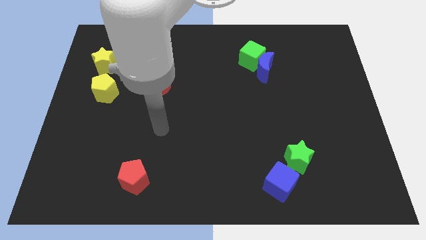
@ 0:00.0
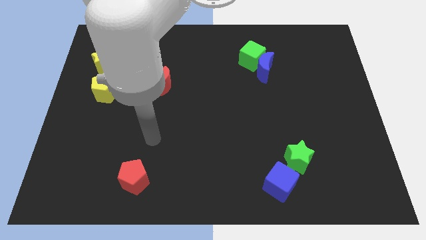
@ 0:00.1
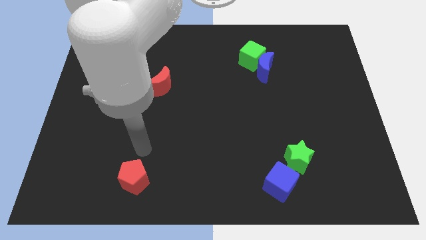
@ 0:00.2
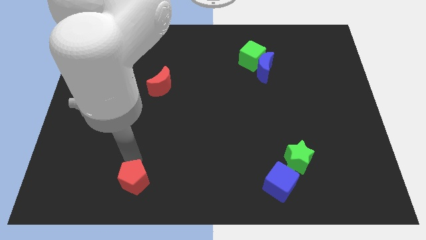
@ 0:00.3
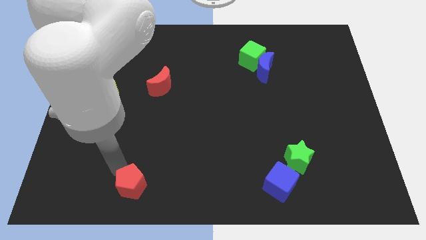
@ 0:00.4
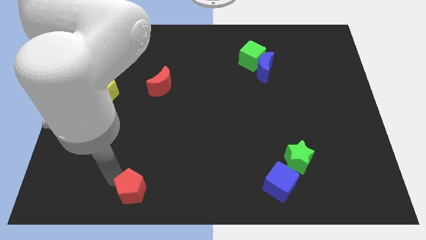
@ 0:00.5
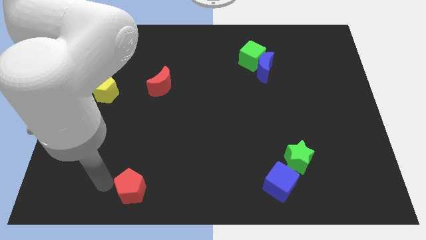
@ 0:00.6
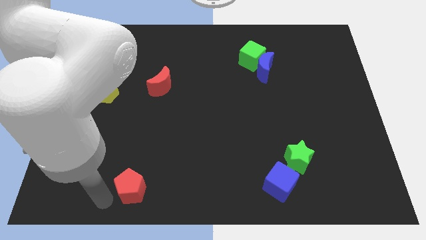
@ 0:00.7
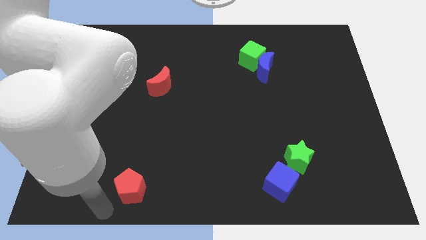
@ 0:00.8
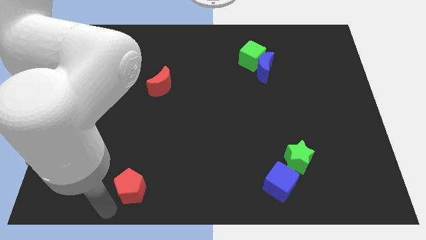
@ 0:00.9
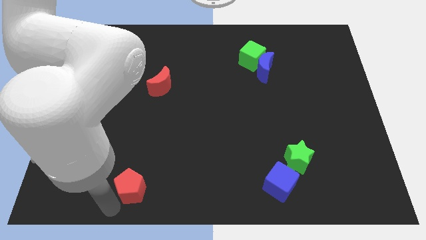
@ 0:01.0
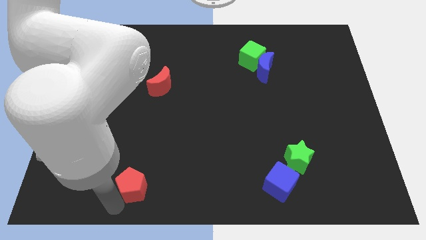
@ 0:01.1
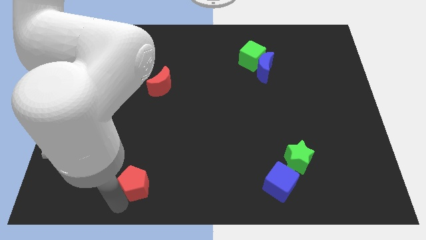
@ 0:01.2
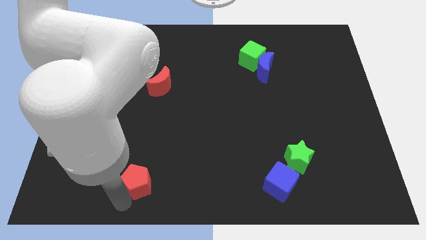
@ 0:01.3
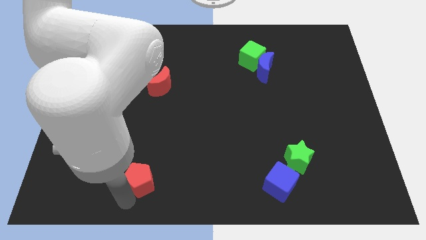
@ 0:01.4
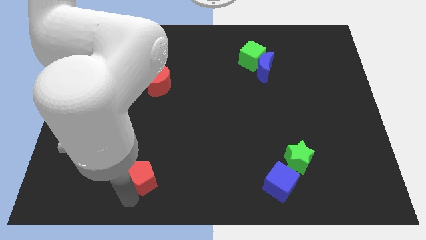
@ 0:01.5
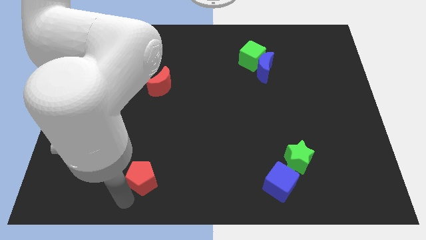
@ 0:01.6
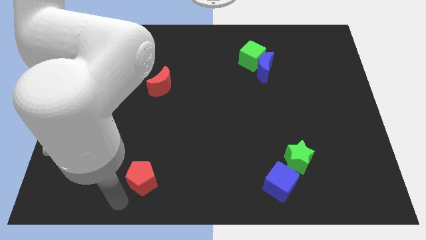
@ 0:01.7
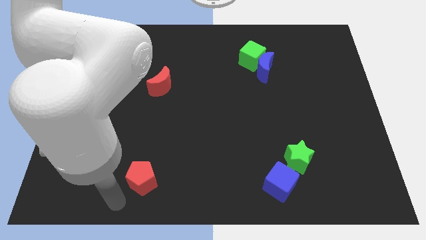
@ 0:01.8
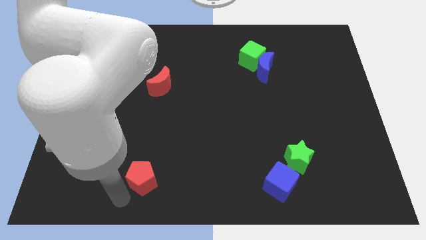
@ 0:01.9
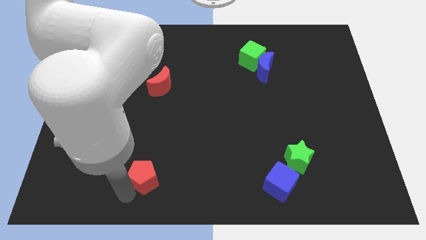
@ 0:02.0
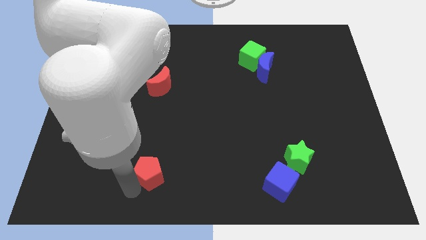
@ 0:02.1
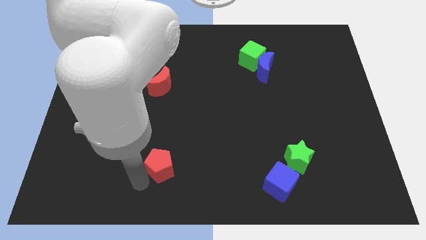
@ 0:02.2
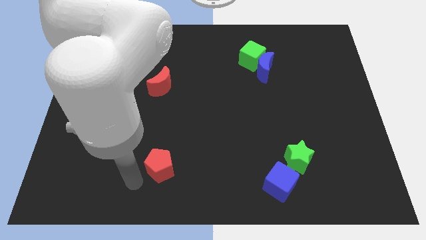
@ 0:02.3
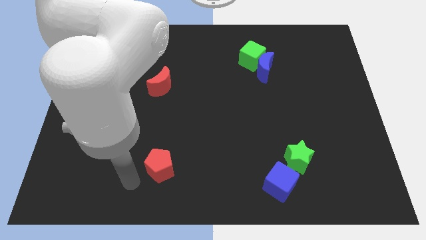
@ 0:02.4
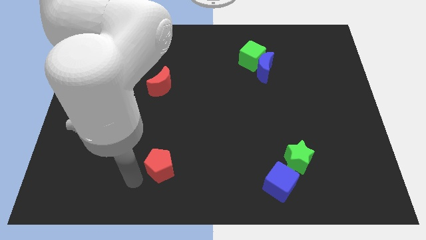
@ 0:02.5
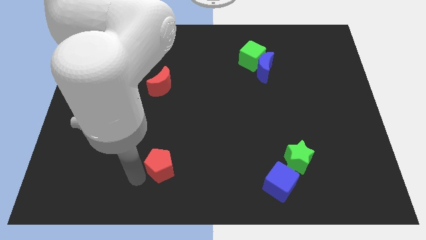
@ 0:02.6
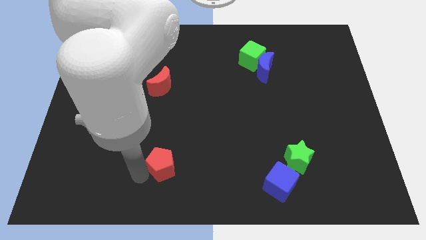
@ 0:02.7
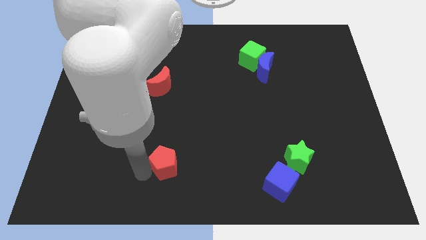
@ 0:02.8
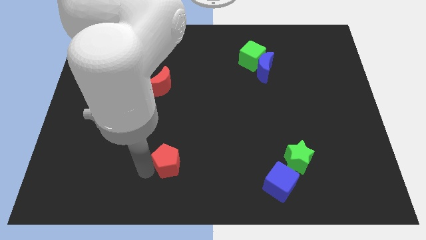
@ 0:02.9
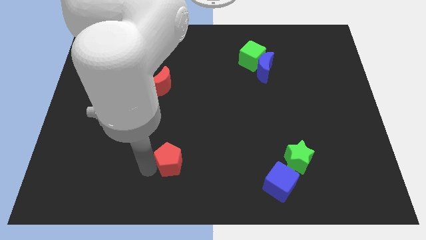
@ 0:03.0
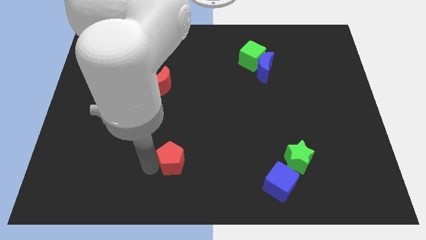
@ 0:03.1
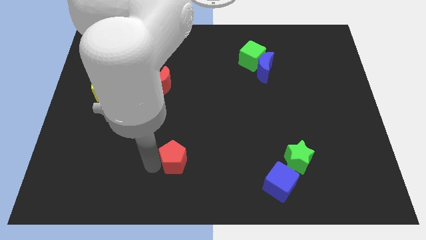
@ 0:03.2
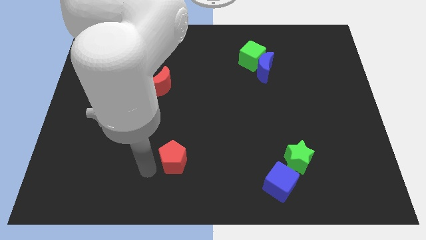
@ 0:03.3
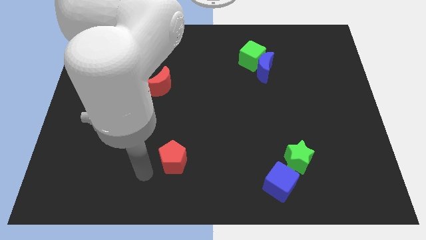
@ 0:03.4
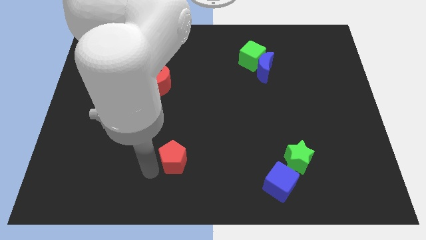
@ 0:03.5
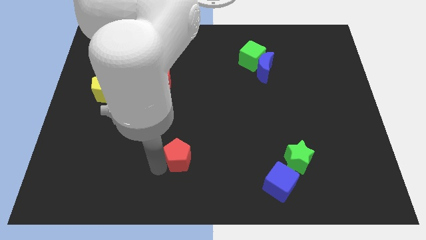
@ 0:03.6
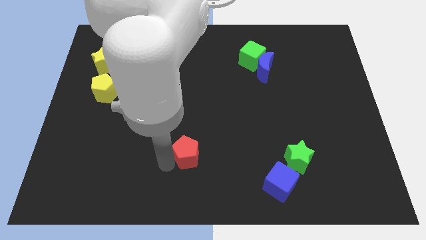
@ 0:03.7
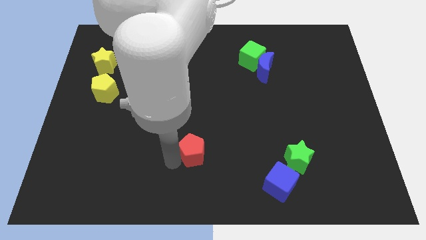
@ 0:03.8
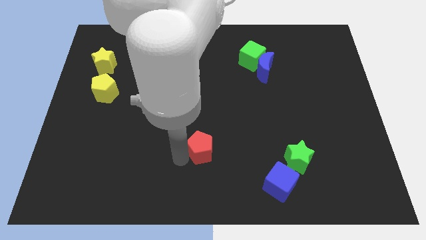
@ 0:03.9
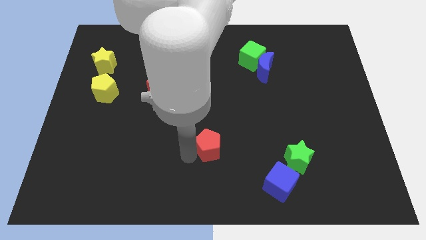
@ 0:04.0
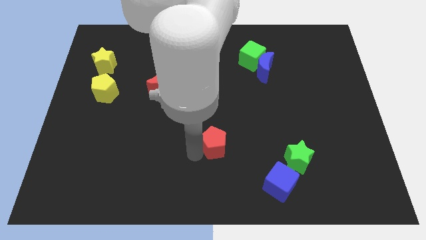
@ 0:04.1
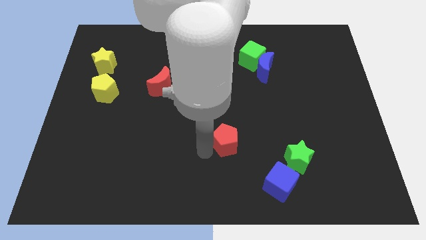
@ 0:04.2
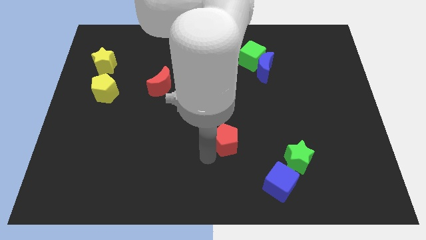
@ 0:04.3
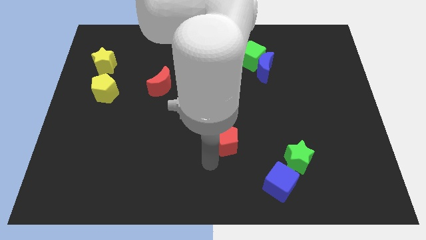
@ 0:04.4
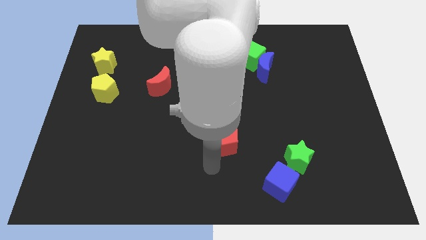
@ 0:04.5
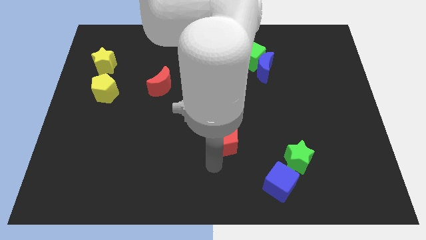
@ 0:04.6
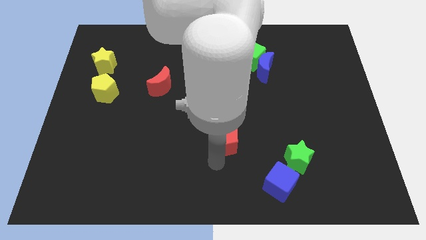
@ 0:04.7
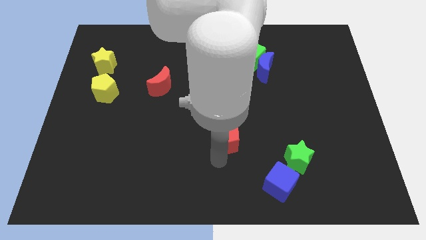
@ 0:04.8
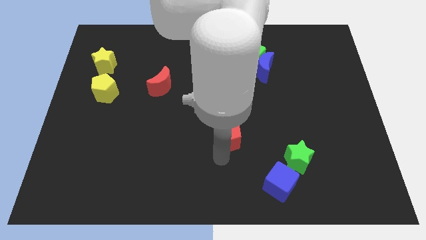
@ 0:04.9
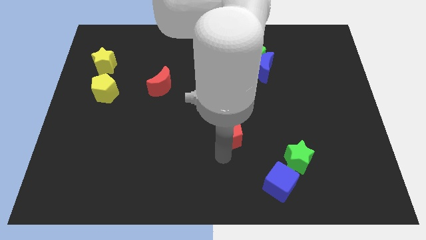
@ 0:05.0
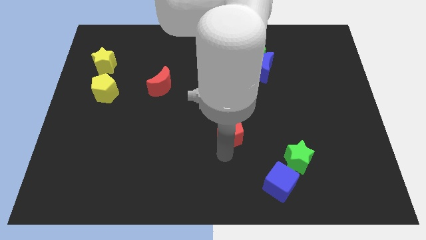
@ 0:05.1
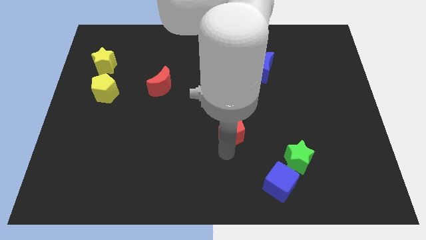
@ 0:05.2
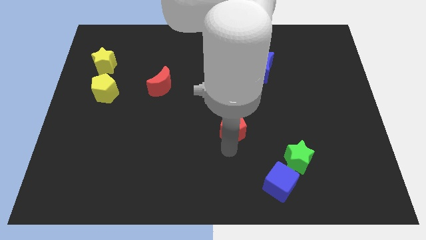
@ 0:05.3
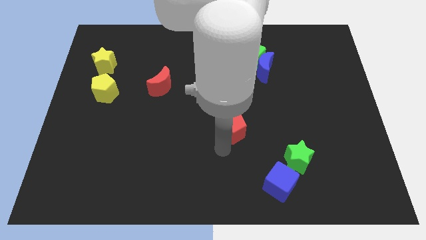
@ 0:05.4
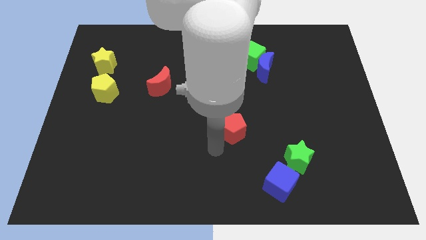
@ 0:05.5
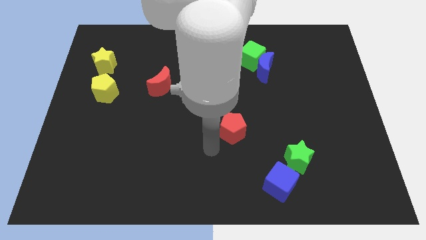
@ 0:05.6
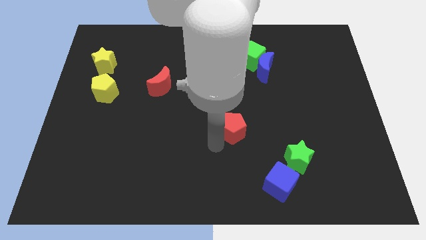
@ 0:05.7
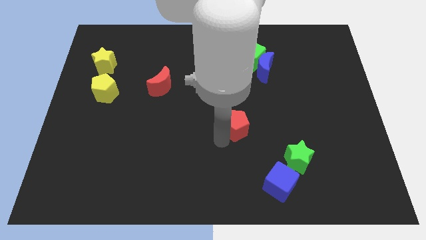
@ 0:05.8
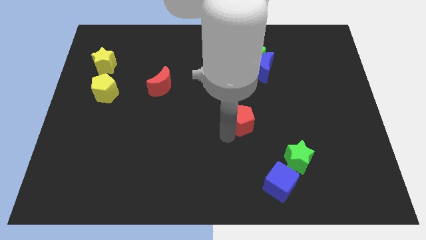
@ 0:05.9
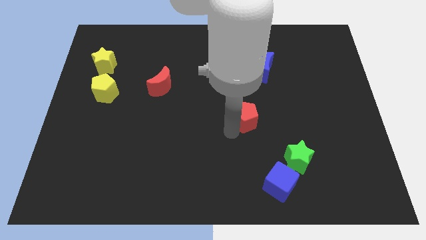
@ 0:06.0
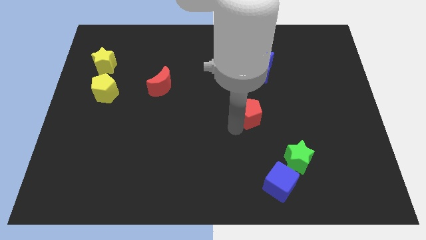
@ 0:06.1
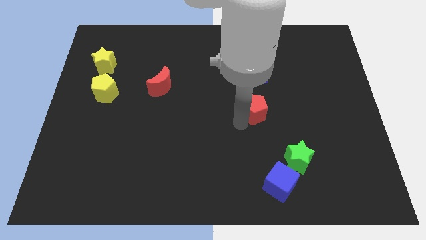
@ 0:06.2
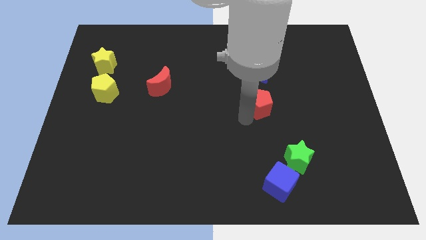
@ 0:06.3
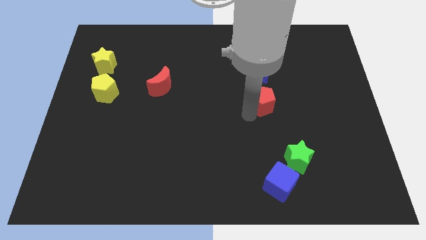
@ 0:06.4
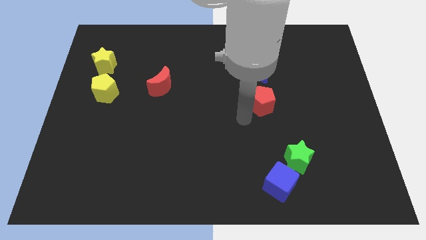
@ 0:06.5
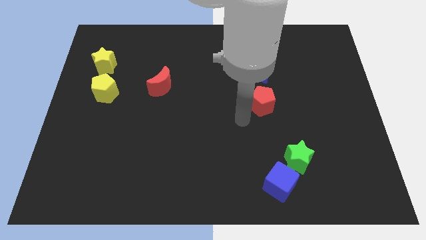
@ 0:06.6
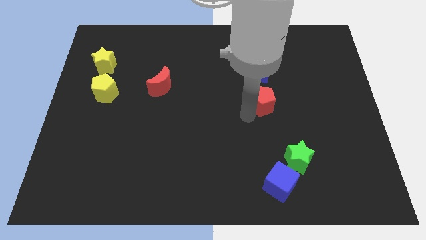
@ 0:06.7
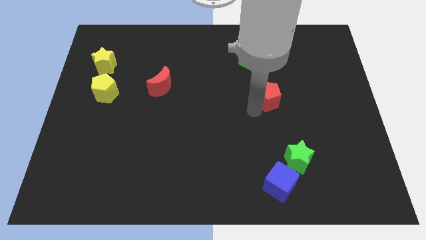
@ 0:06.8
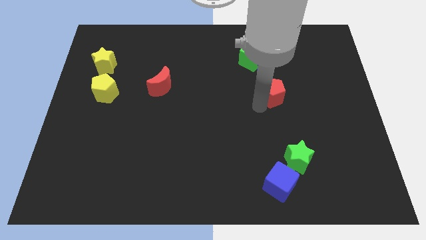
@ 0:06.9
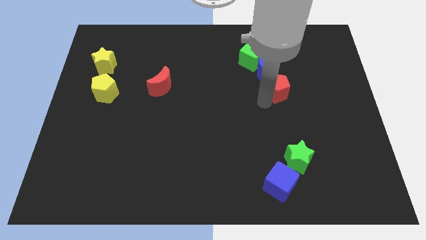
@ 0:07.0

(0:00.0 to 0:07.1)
put the red pentagon to the bottom right side of the blue moon
